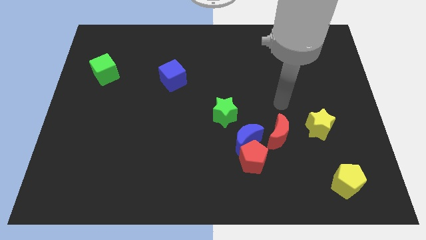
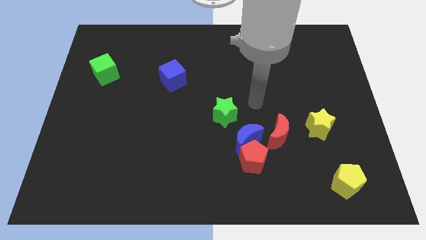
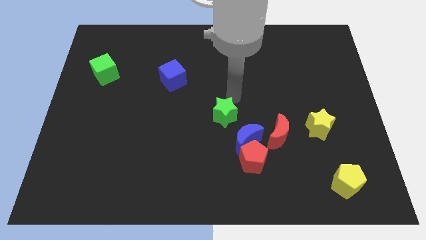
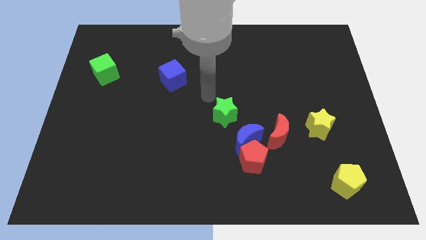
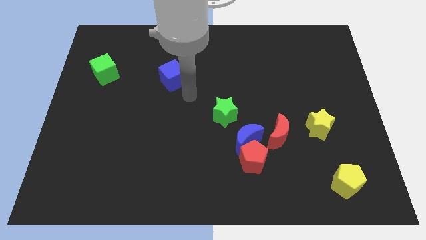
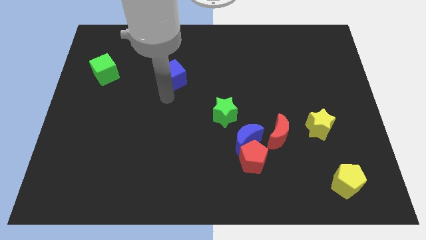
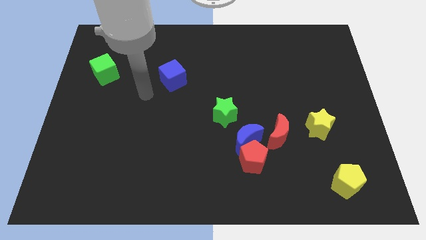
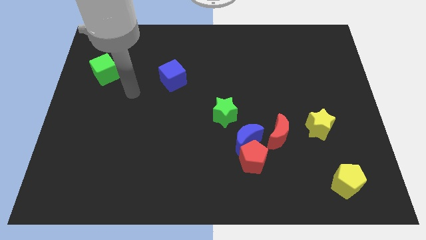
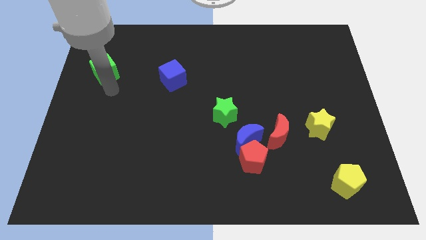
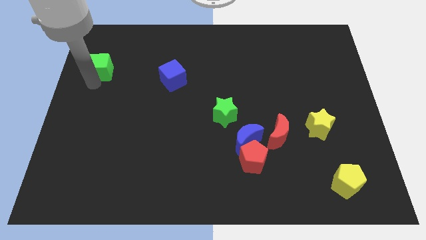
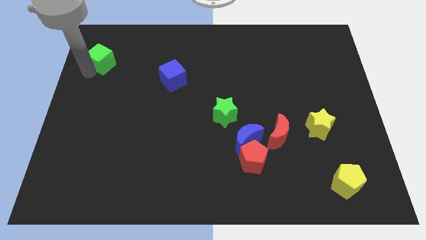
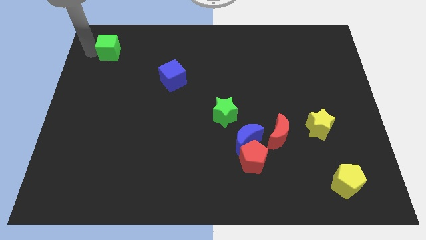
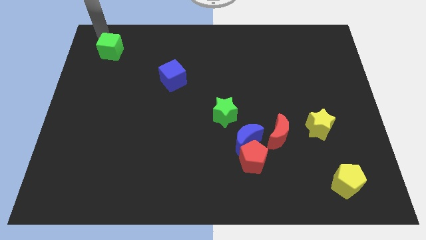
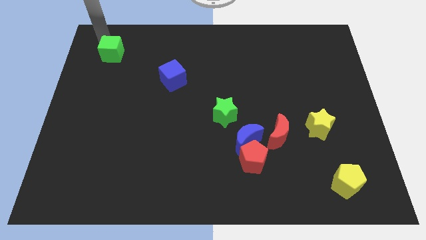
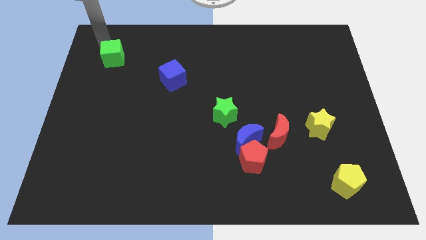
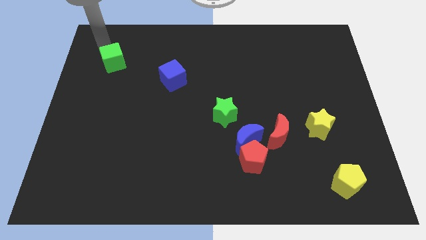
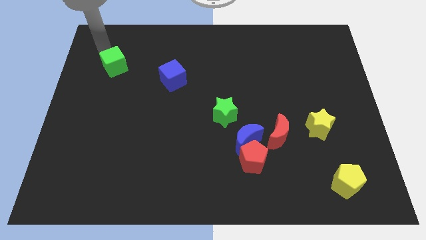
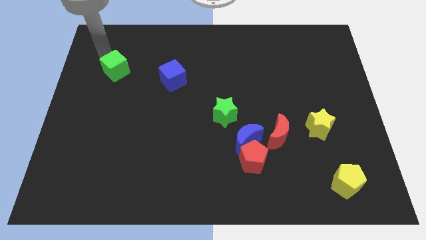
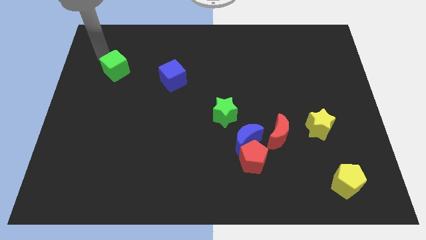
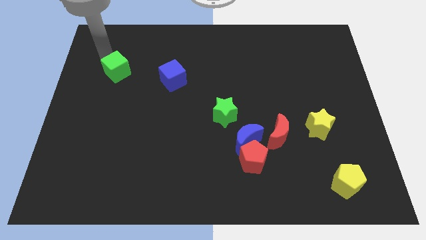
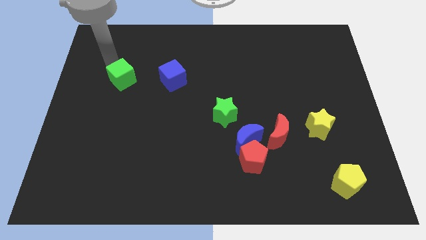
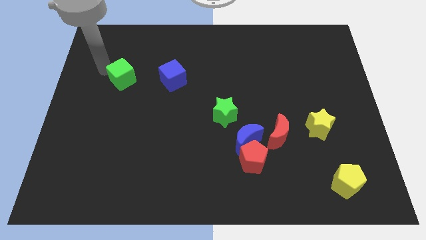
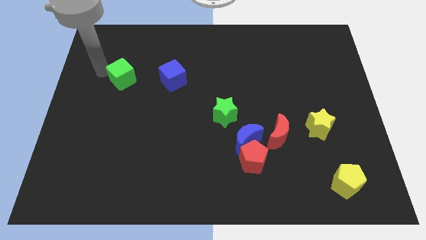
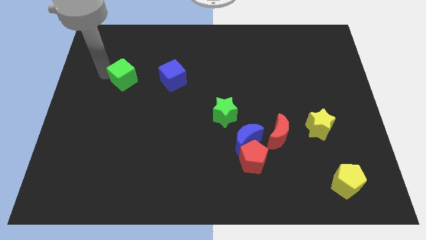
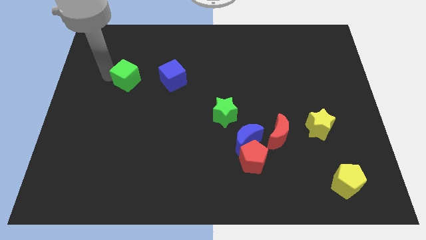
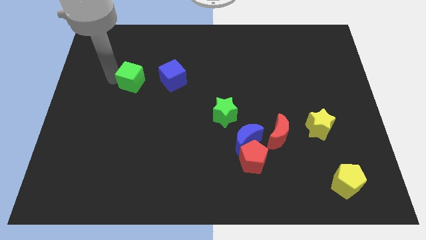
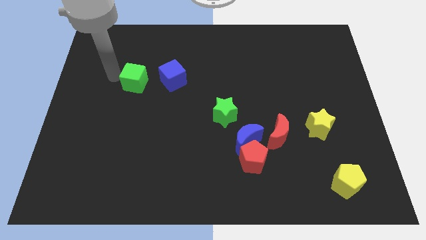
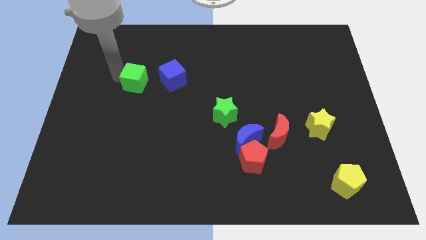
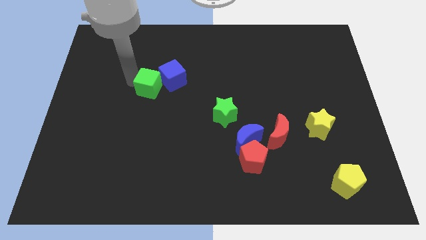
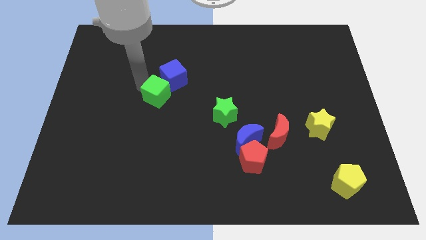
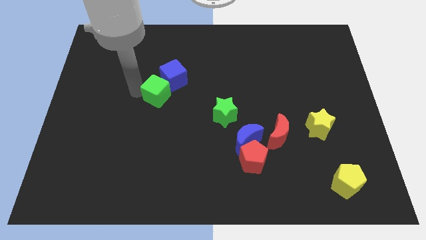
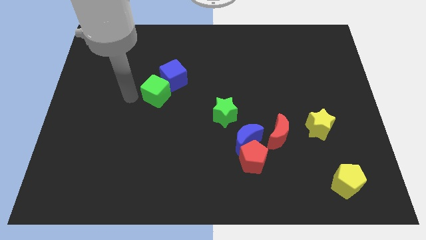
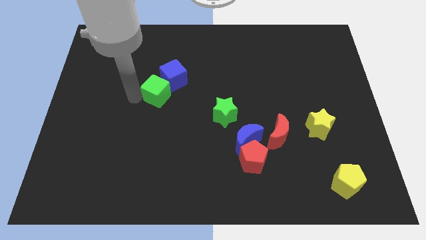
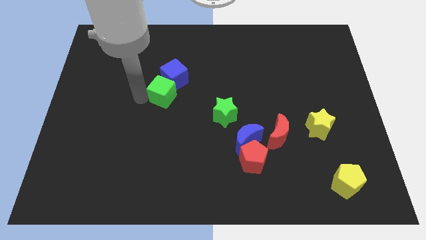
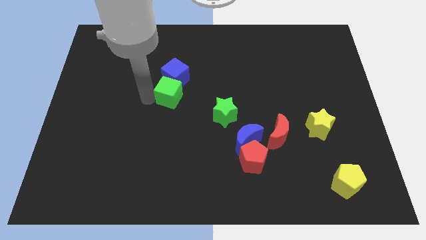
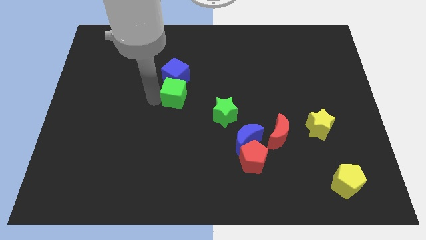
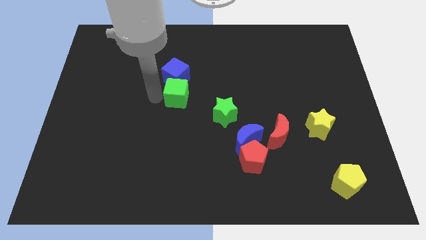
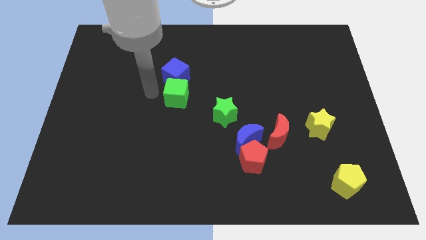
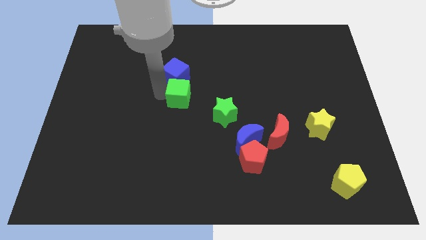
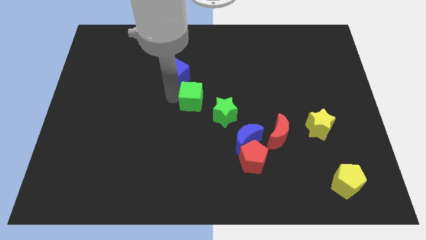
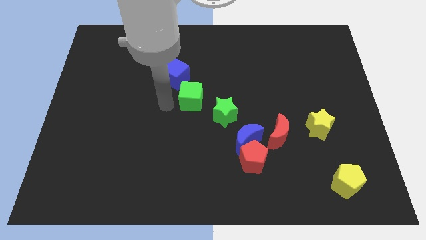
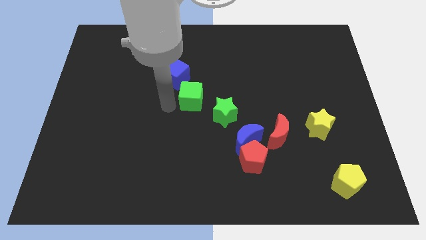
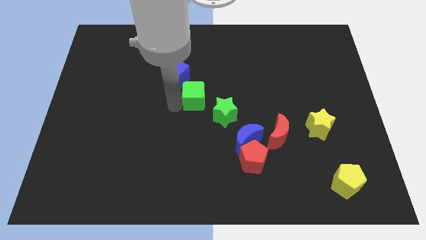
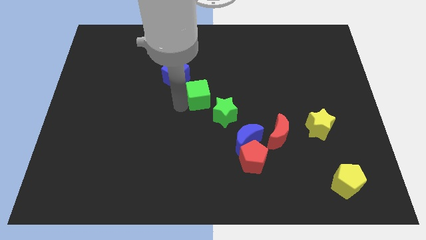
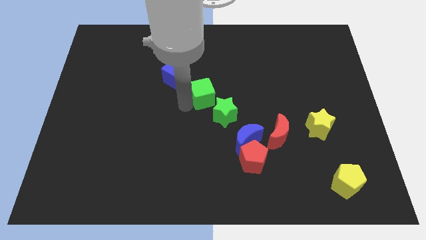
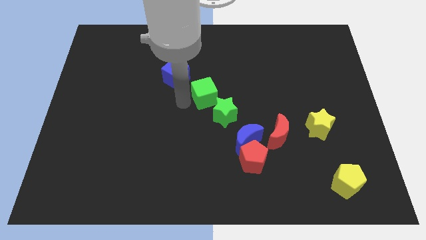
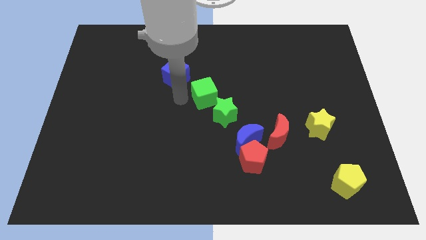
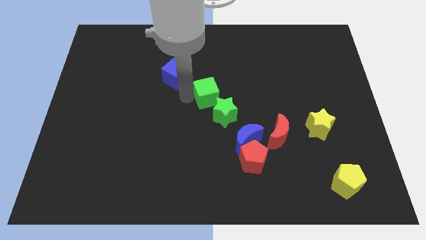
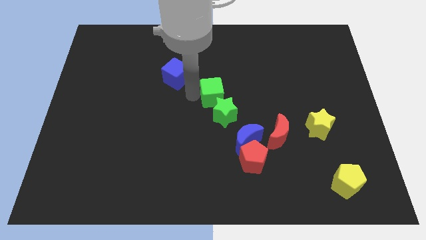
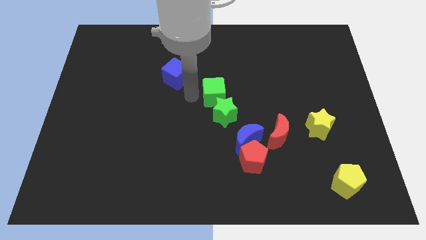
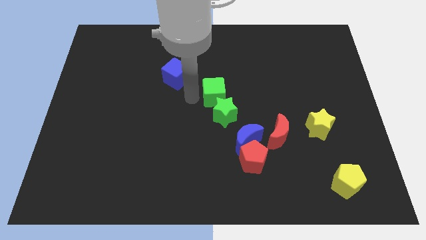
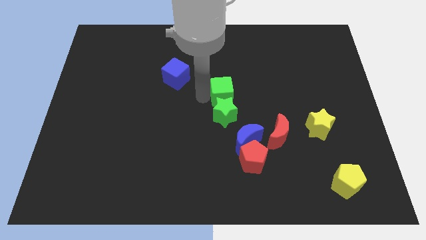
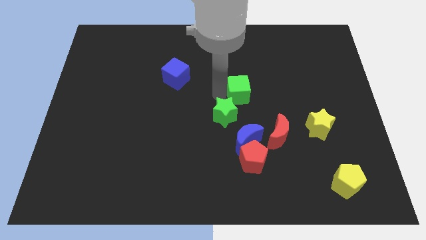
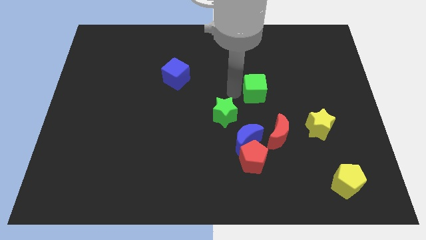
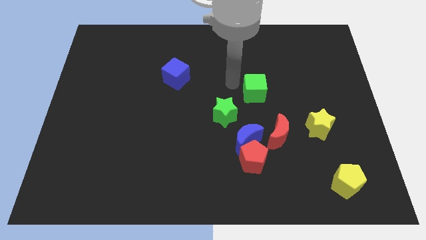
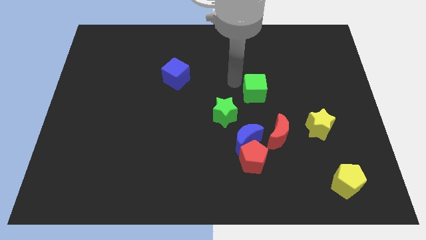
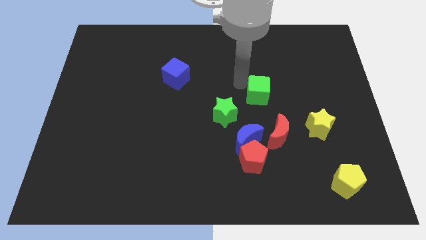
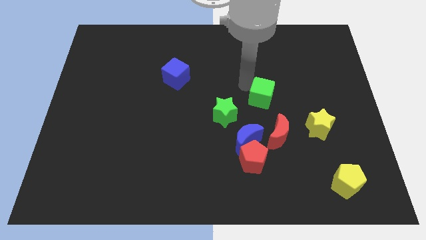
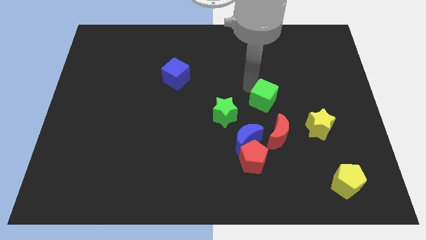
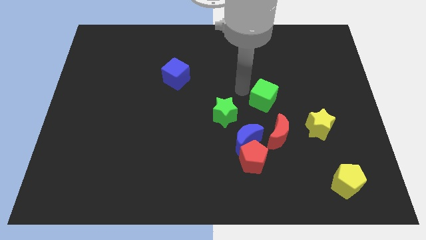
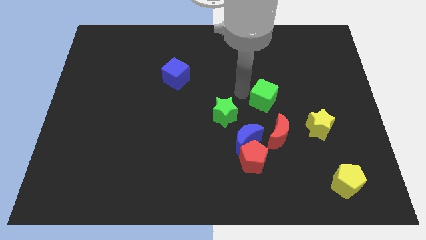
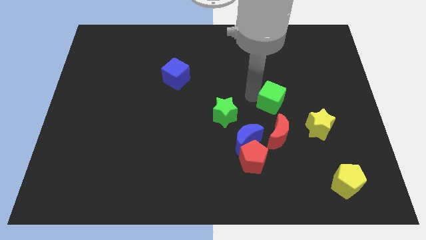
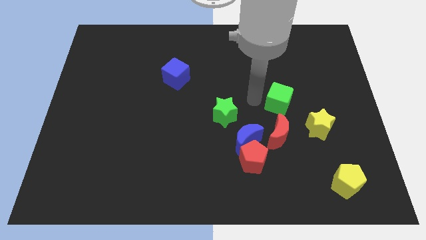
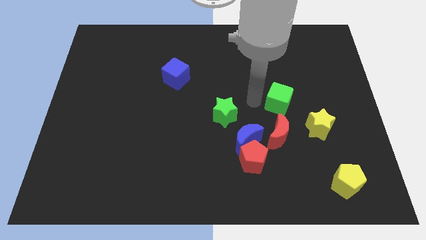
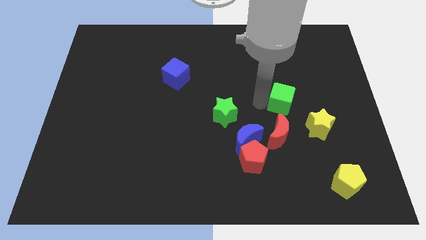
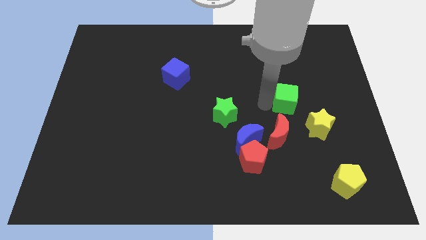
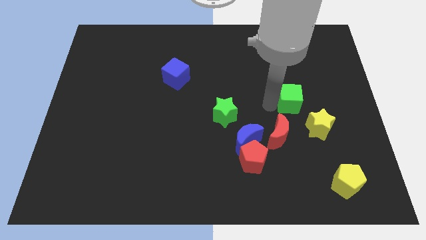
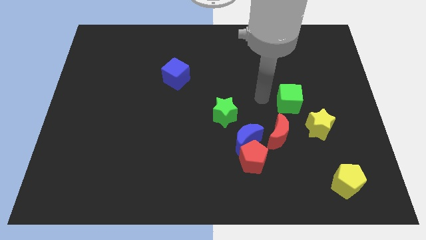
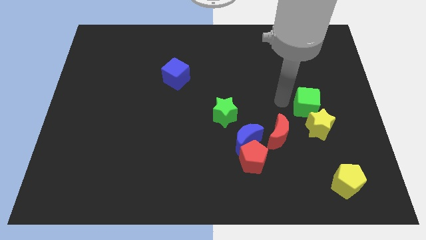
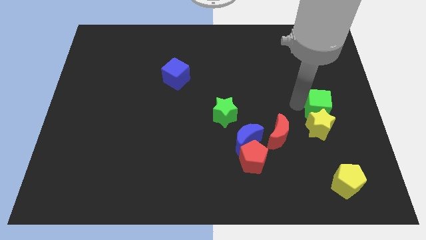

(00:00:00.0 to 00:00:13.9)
slide the green cube diagonally up and to the right of the yellow star

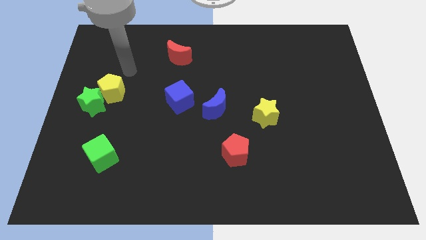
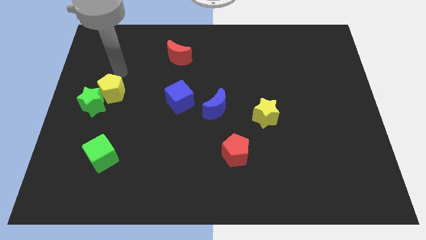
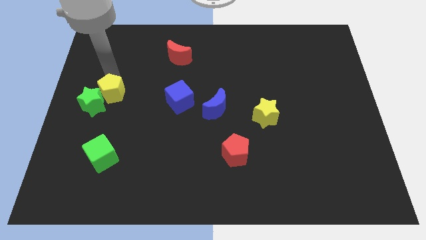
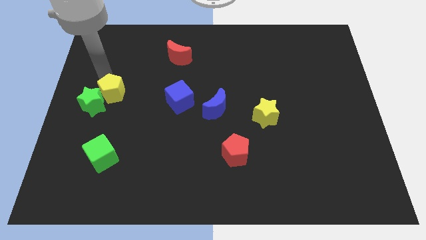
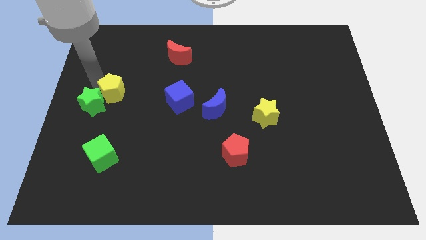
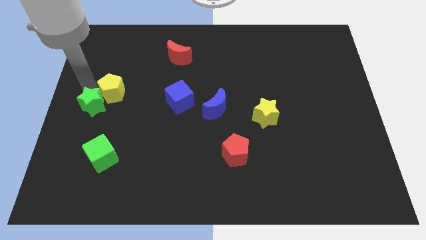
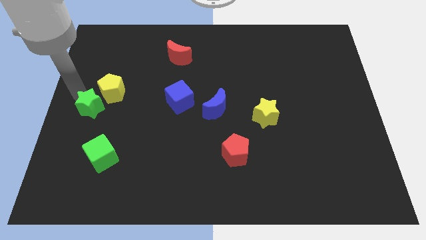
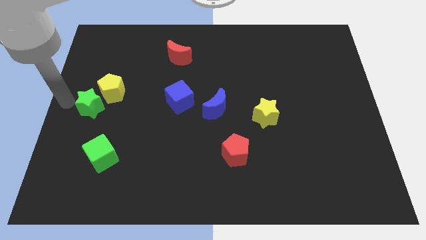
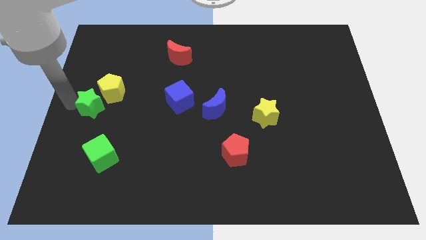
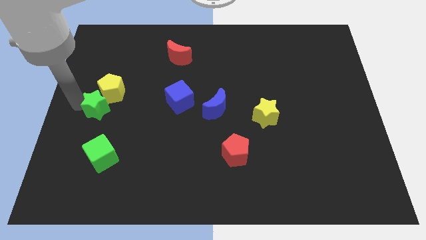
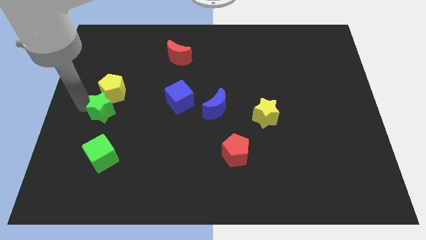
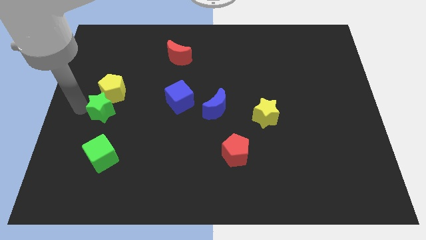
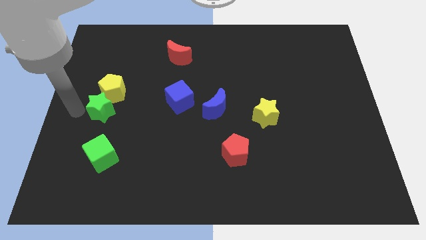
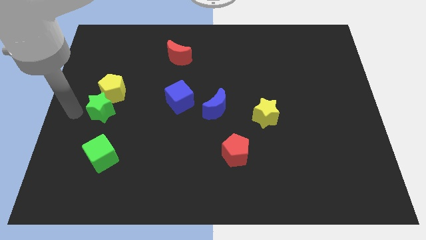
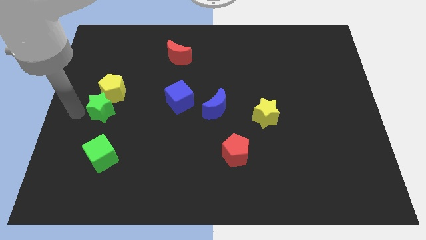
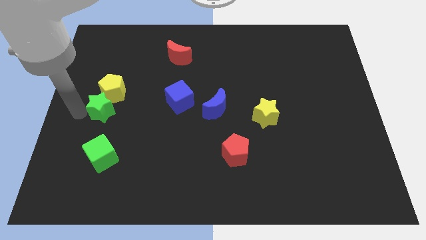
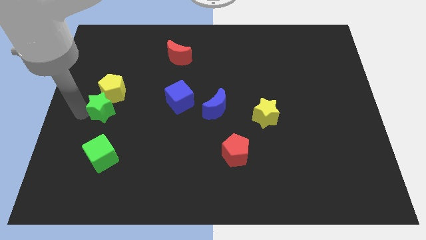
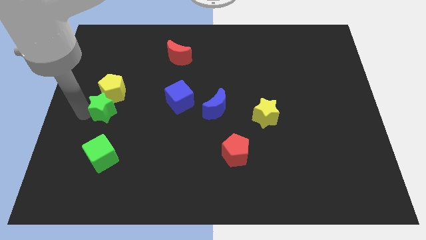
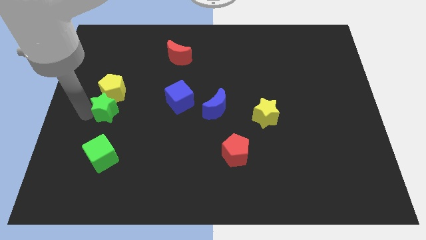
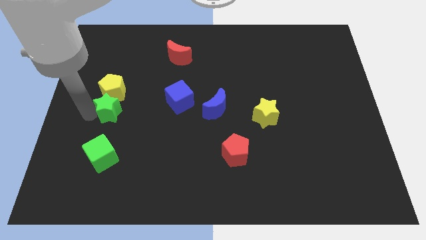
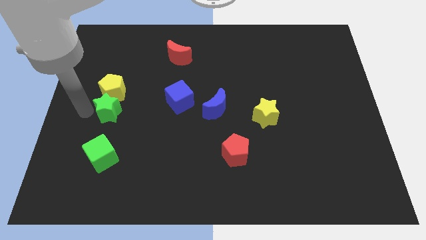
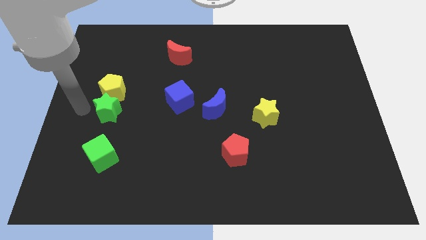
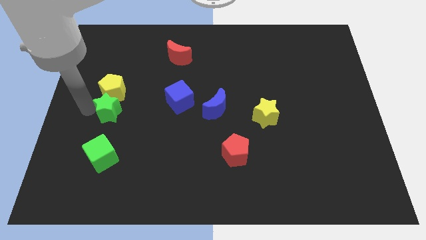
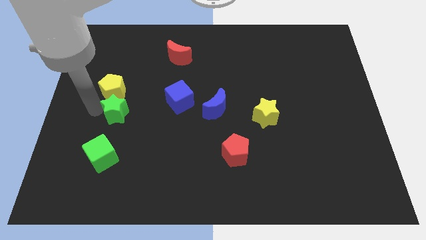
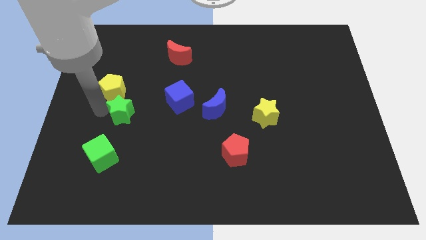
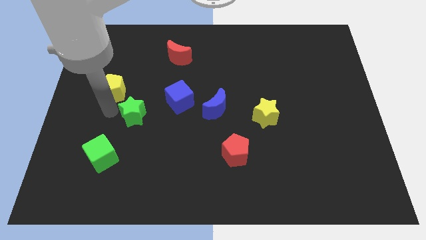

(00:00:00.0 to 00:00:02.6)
slide the green star to the bottom left side of the blue cube
